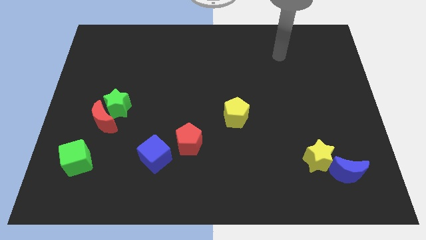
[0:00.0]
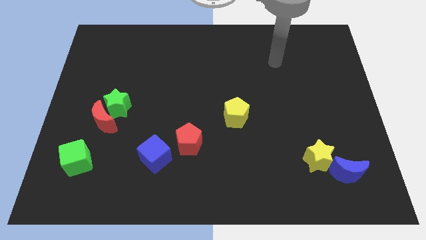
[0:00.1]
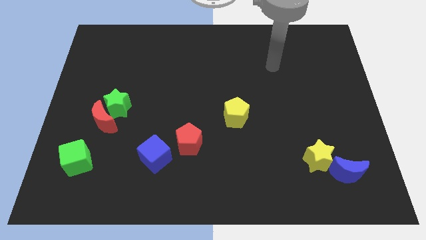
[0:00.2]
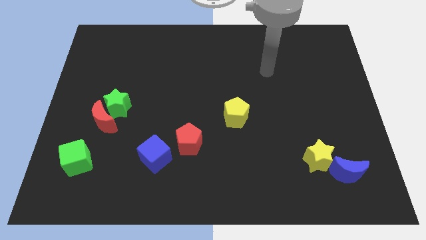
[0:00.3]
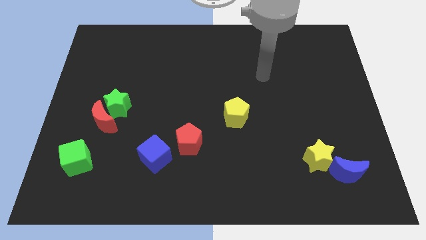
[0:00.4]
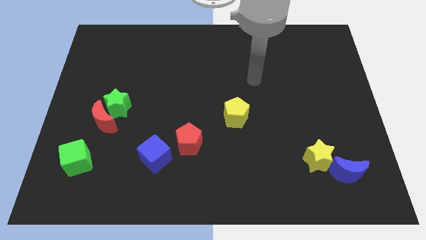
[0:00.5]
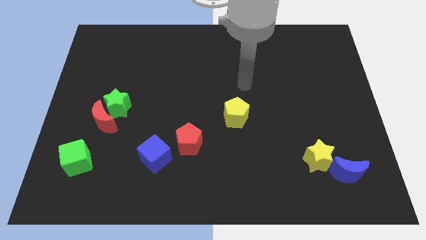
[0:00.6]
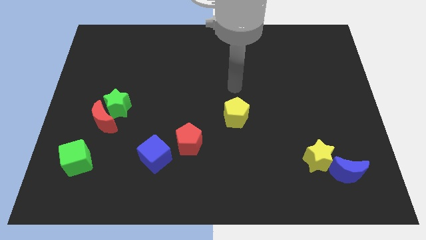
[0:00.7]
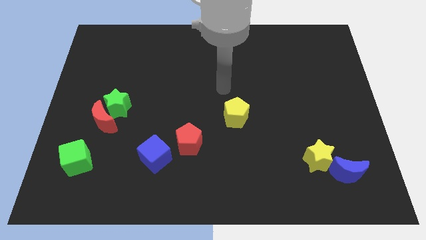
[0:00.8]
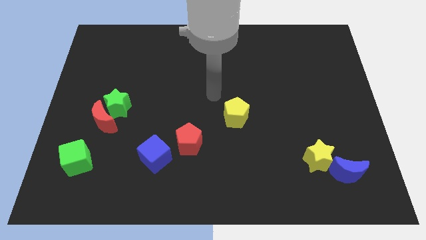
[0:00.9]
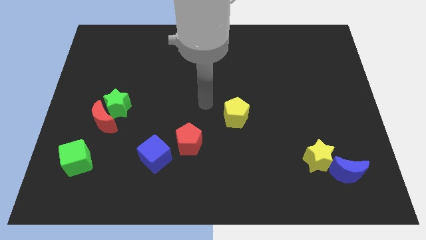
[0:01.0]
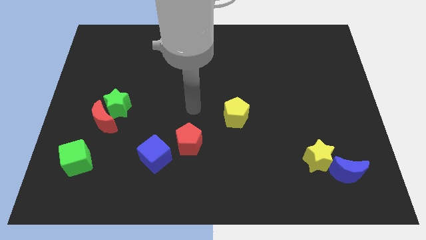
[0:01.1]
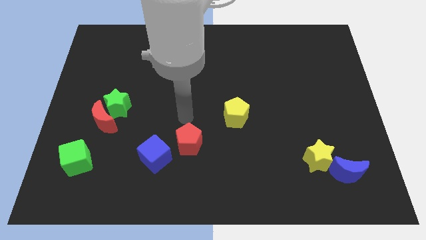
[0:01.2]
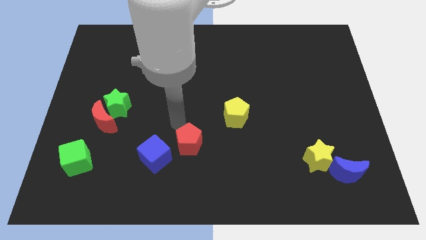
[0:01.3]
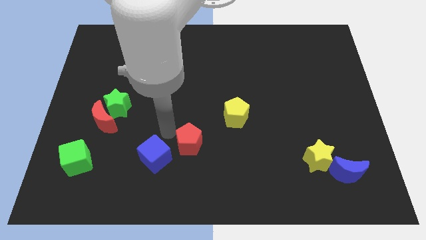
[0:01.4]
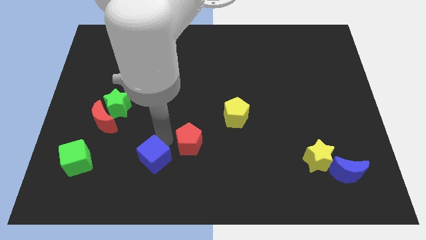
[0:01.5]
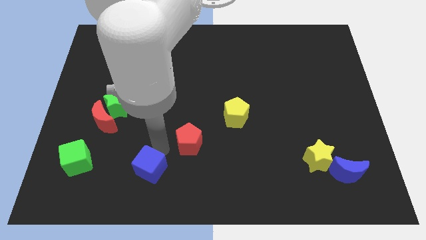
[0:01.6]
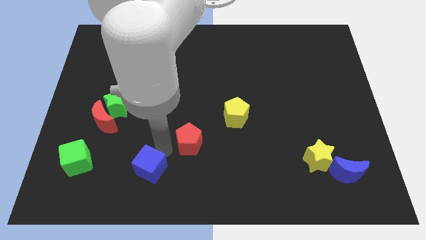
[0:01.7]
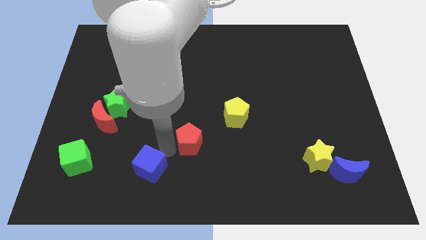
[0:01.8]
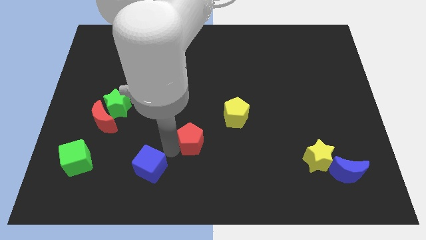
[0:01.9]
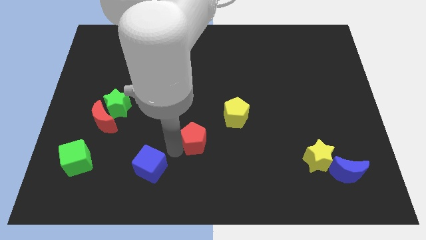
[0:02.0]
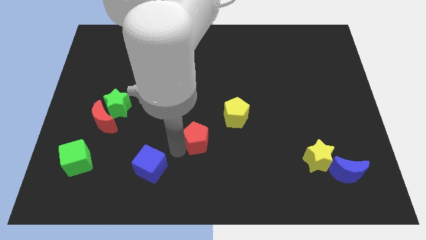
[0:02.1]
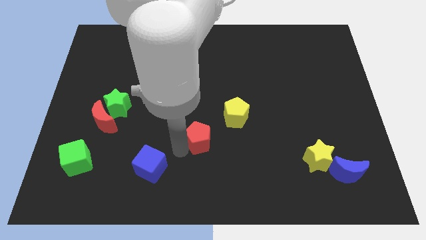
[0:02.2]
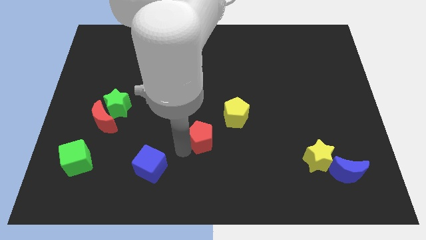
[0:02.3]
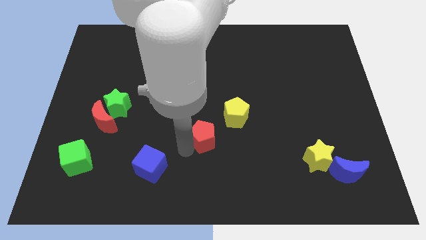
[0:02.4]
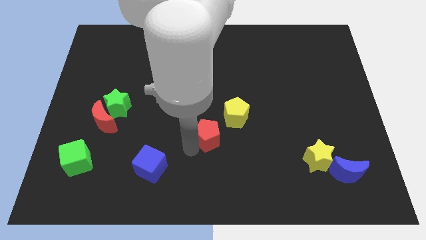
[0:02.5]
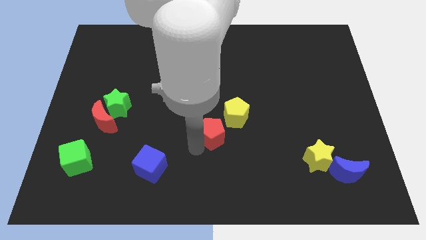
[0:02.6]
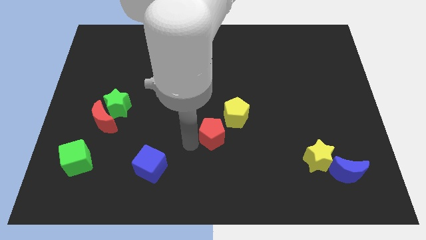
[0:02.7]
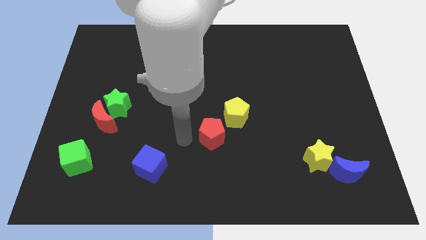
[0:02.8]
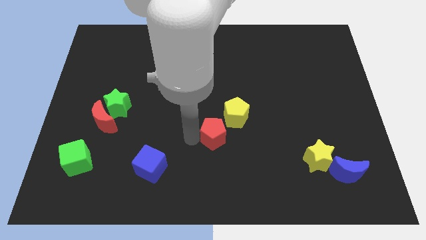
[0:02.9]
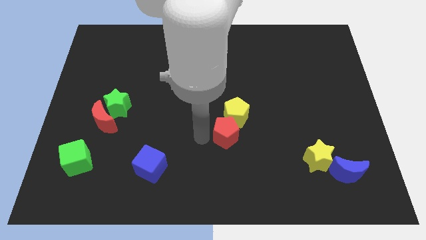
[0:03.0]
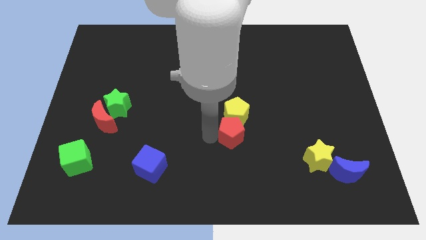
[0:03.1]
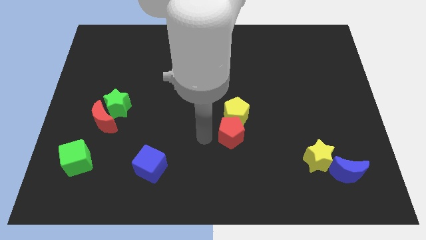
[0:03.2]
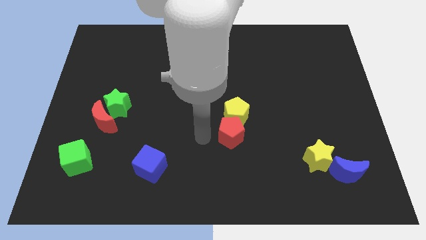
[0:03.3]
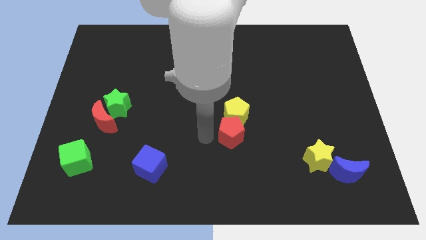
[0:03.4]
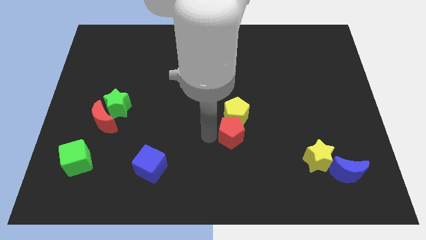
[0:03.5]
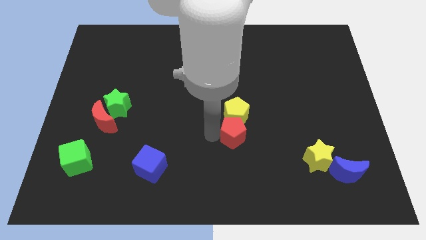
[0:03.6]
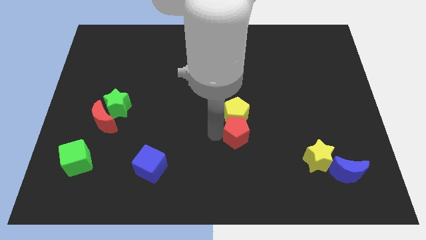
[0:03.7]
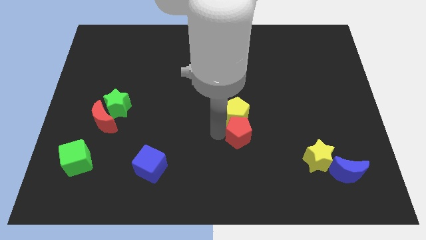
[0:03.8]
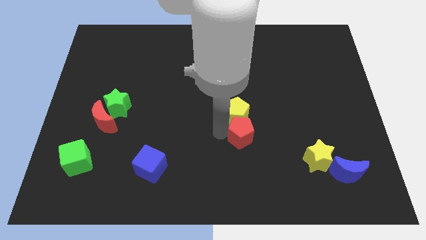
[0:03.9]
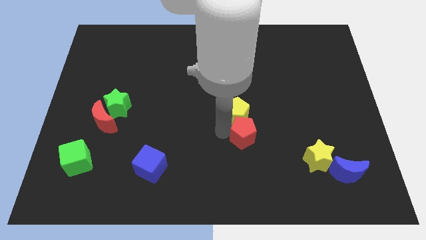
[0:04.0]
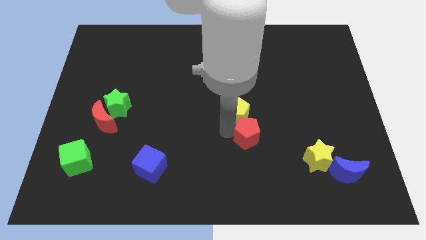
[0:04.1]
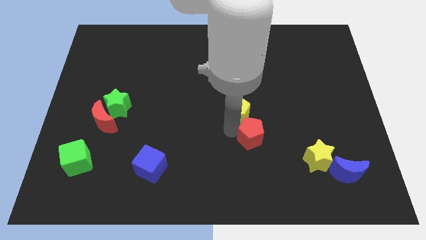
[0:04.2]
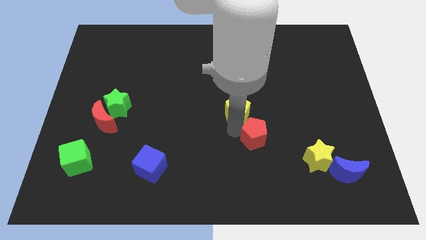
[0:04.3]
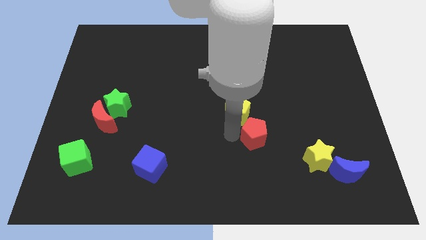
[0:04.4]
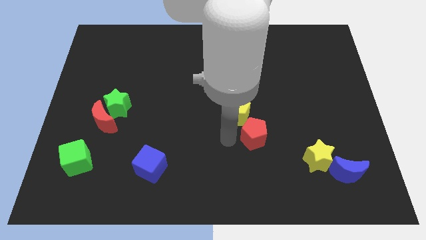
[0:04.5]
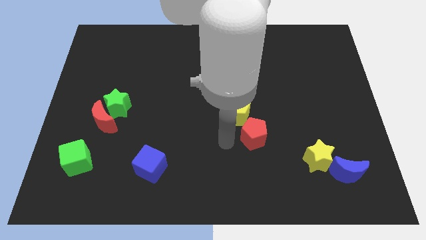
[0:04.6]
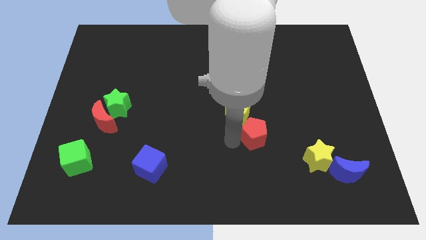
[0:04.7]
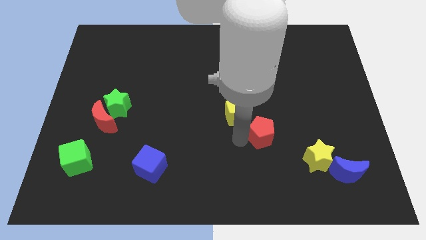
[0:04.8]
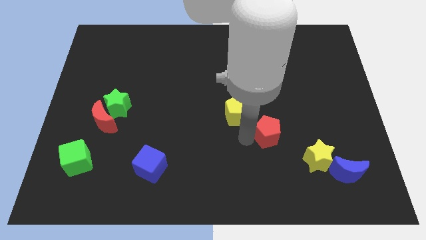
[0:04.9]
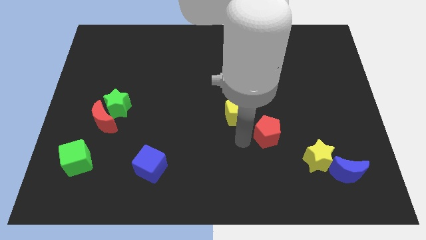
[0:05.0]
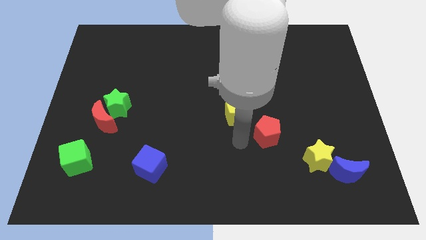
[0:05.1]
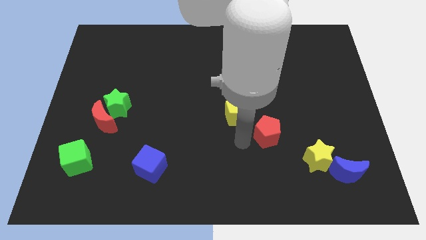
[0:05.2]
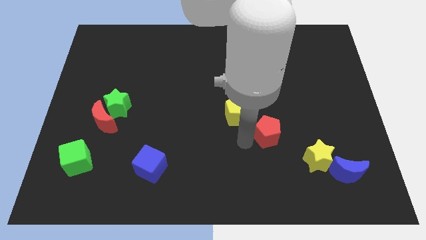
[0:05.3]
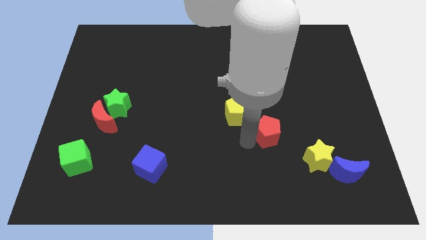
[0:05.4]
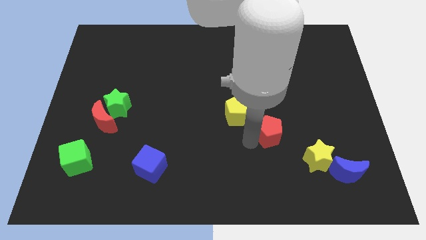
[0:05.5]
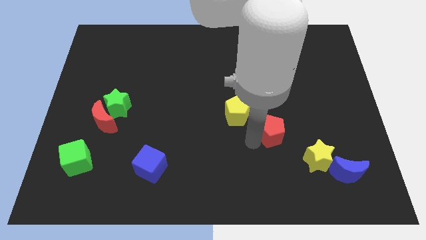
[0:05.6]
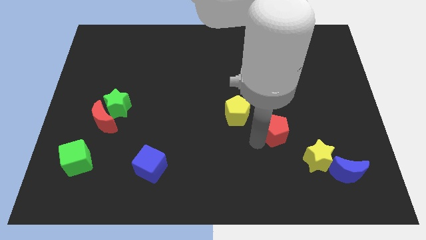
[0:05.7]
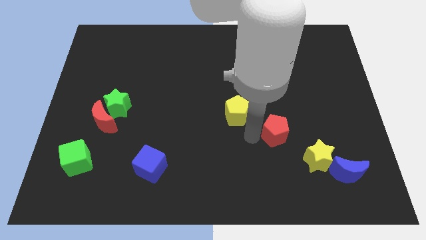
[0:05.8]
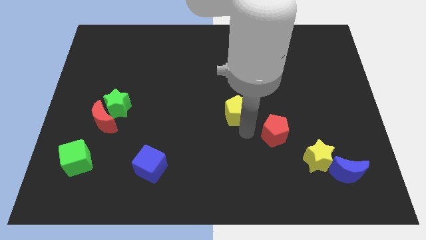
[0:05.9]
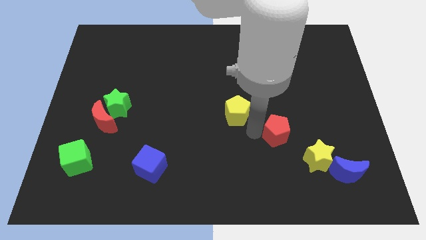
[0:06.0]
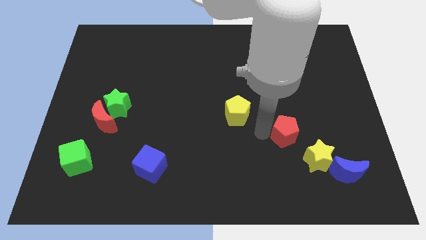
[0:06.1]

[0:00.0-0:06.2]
slide the red pentagon to the right

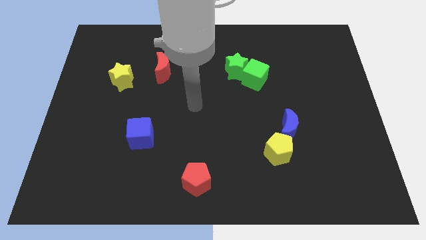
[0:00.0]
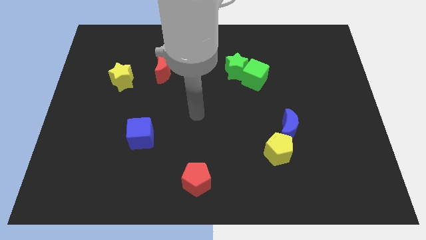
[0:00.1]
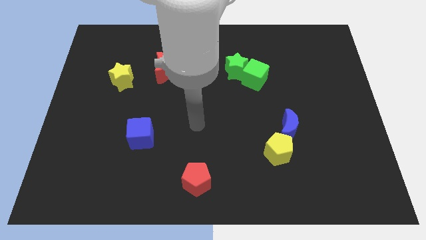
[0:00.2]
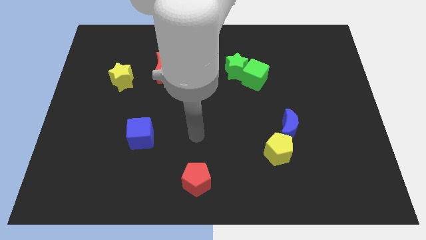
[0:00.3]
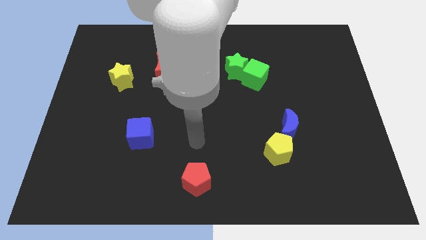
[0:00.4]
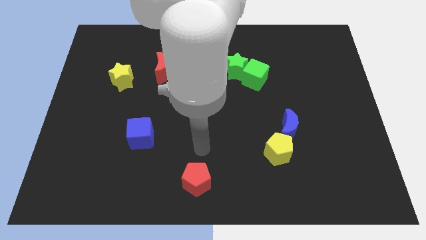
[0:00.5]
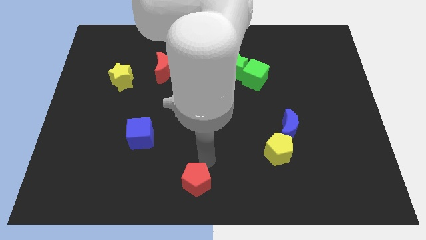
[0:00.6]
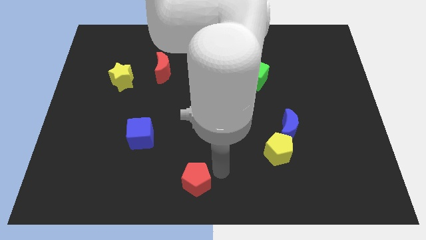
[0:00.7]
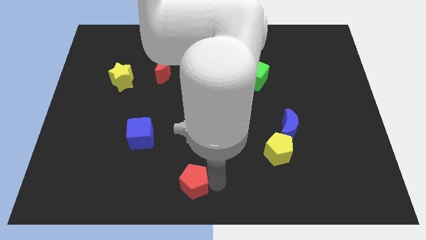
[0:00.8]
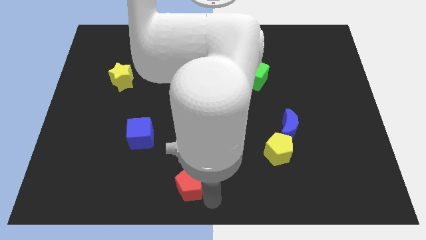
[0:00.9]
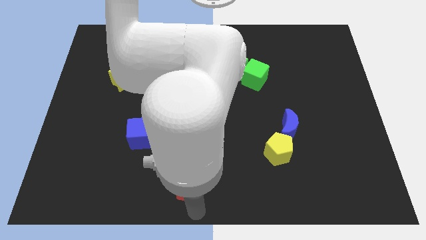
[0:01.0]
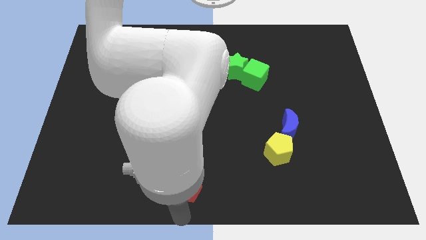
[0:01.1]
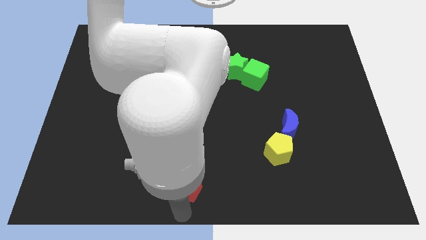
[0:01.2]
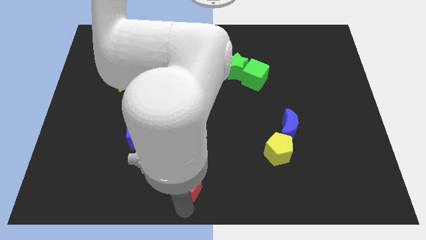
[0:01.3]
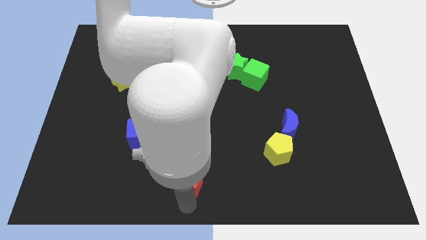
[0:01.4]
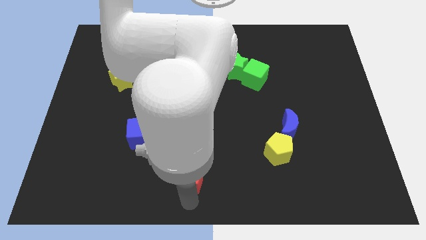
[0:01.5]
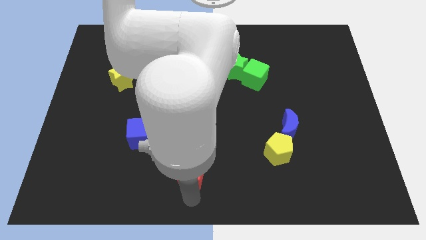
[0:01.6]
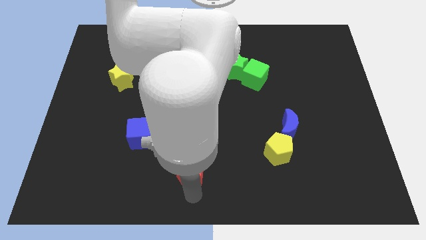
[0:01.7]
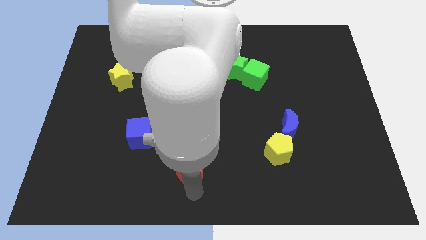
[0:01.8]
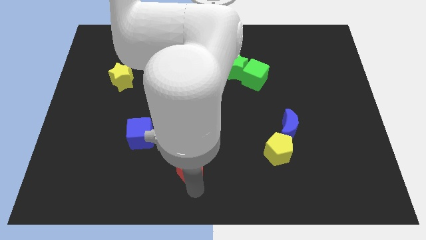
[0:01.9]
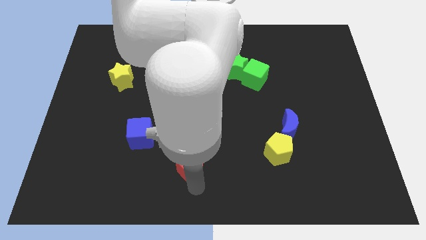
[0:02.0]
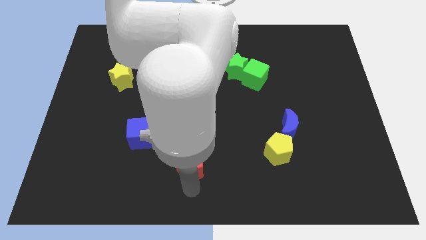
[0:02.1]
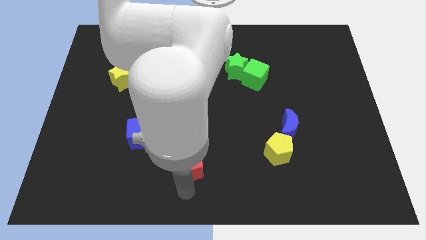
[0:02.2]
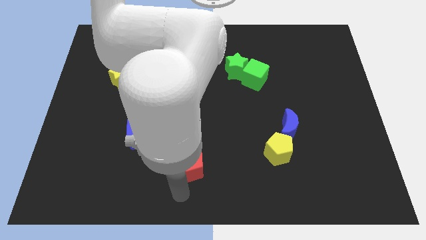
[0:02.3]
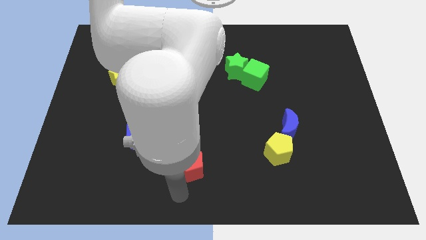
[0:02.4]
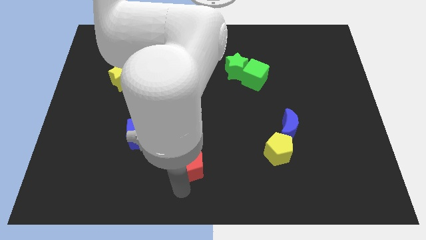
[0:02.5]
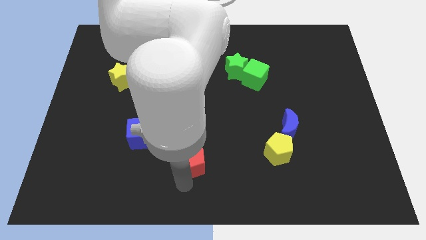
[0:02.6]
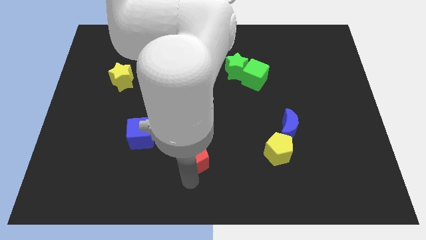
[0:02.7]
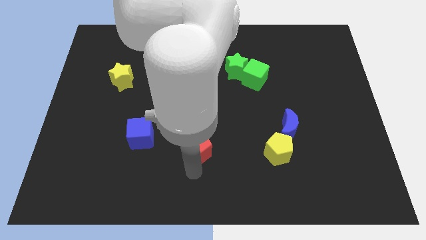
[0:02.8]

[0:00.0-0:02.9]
slightly slide the red pentagon upwards
